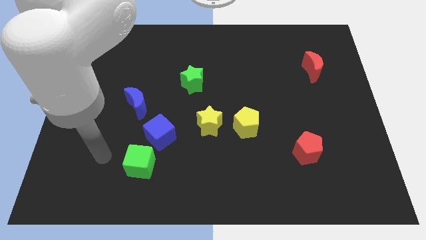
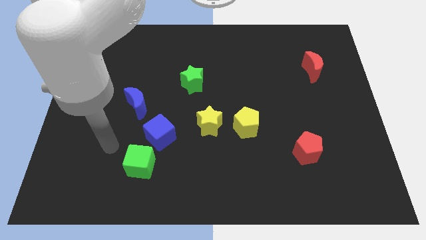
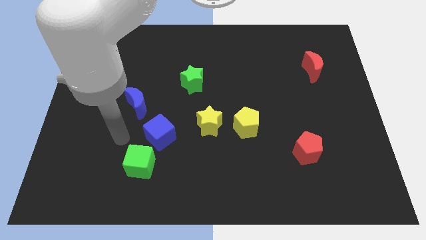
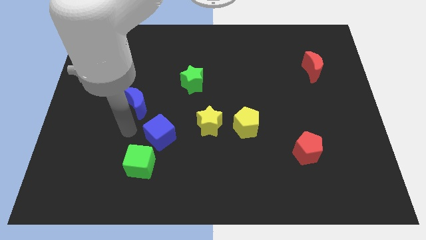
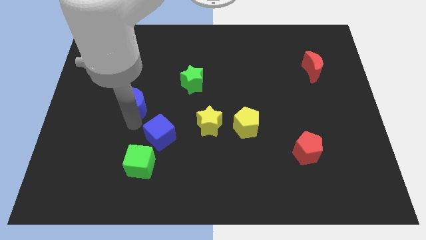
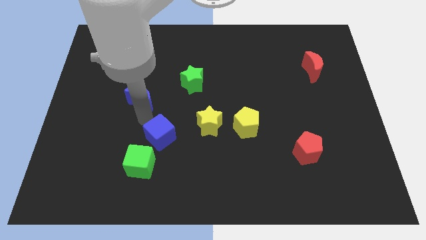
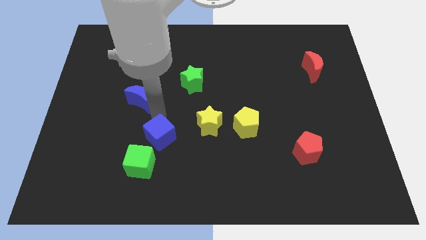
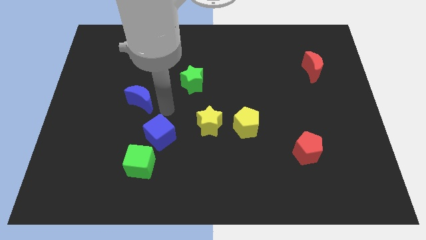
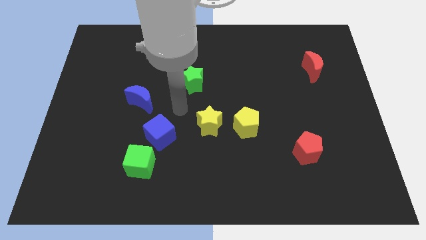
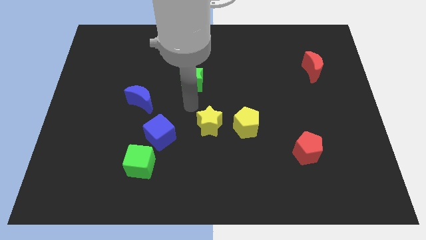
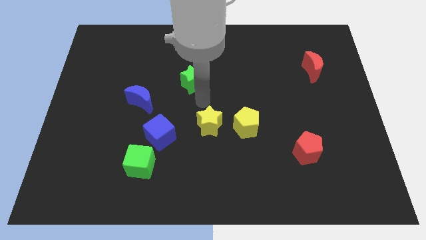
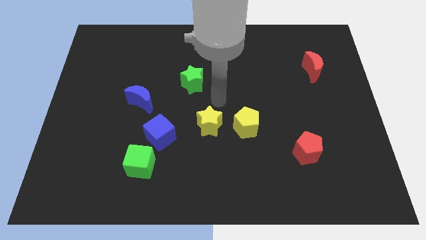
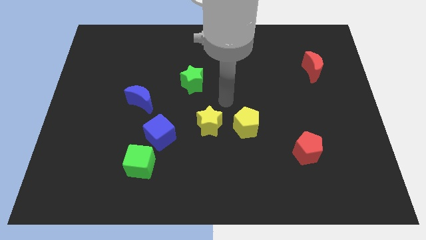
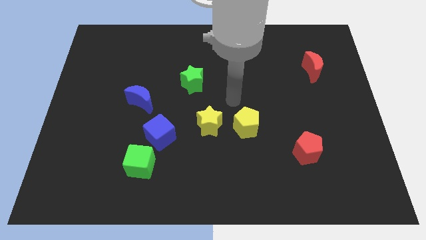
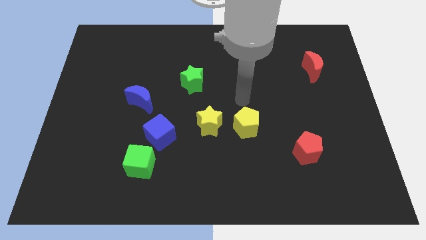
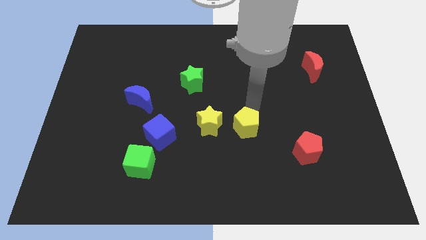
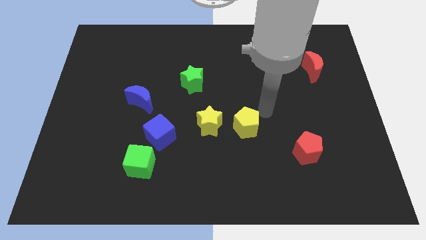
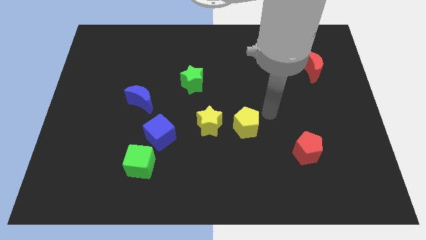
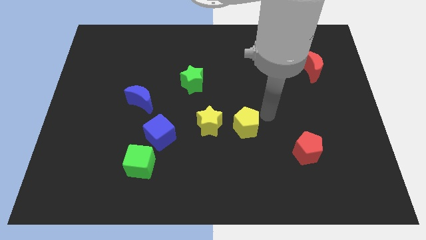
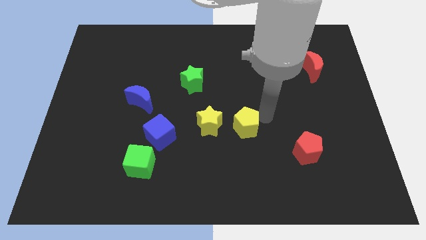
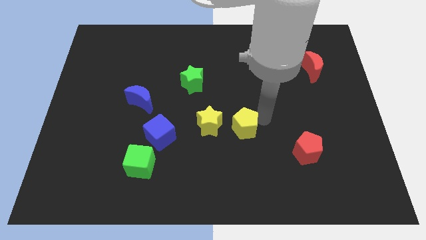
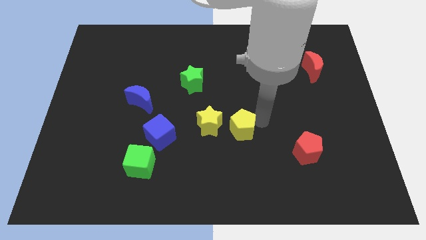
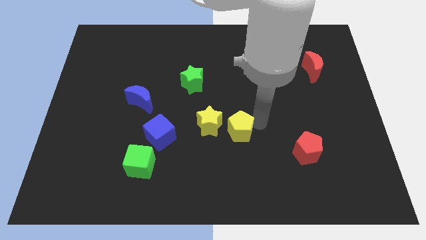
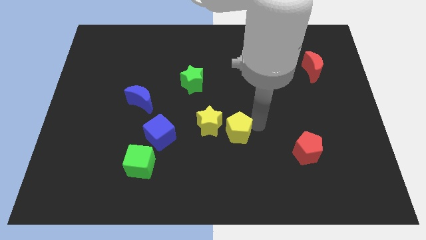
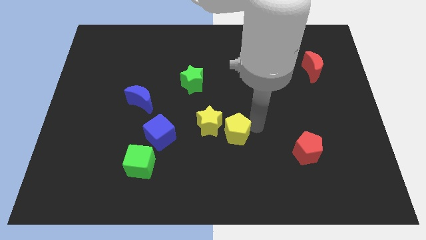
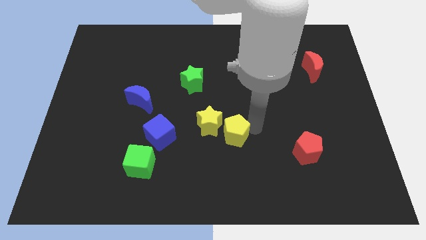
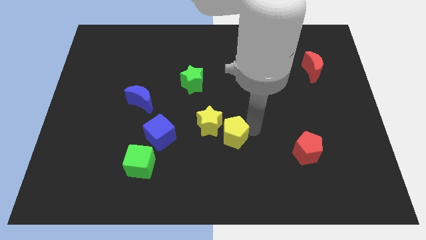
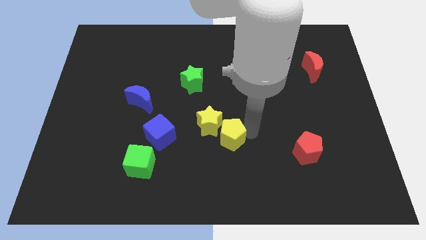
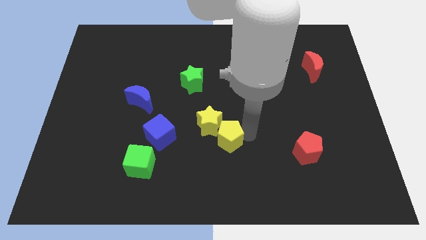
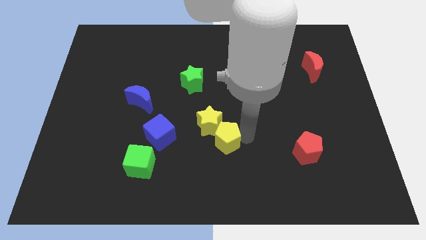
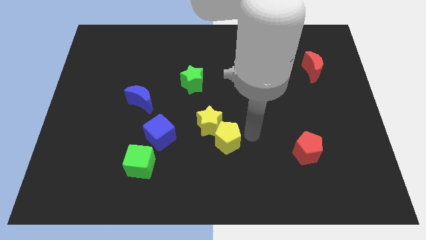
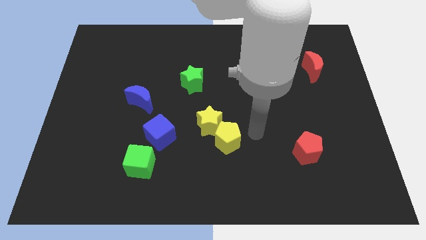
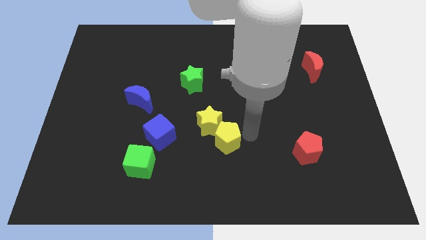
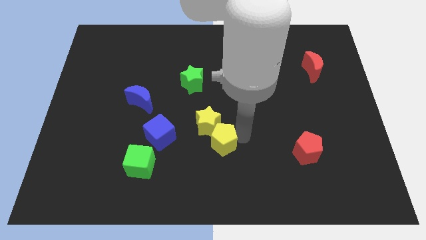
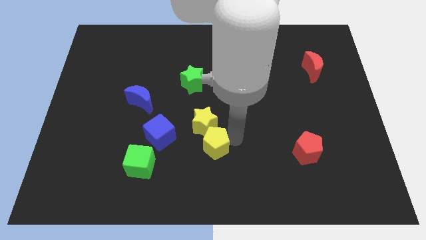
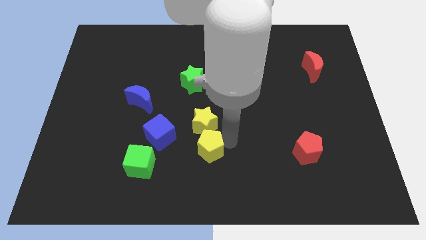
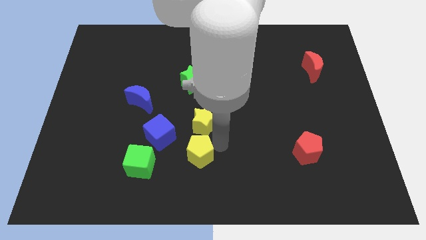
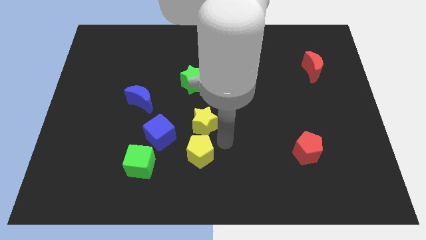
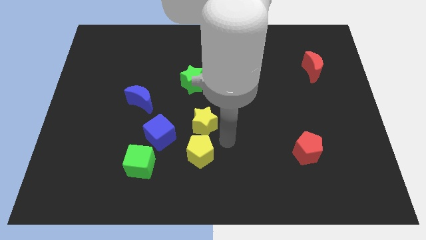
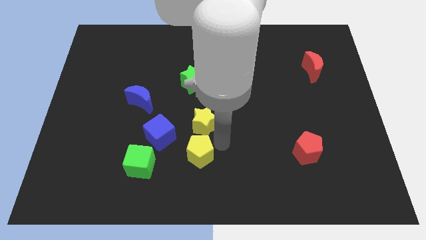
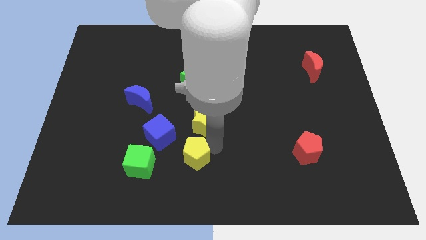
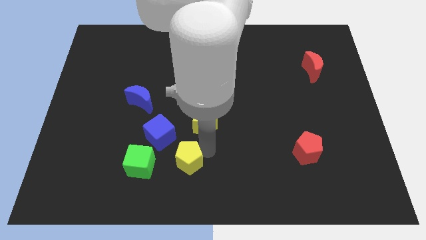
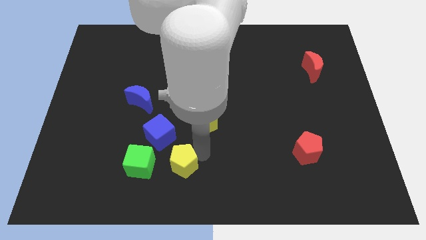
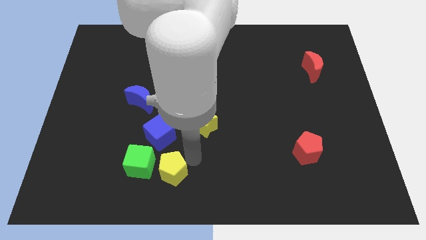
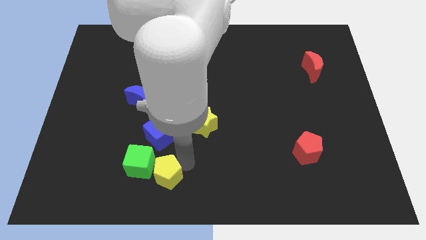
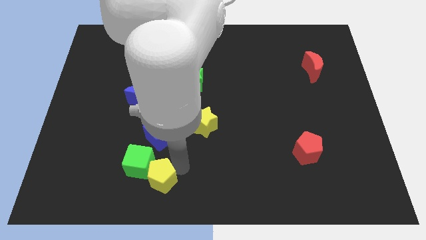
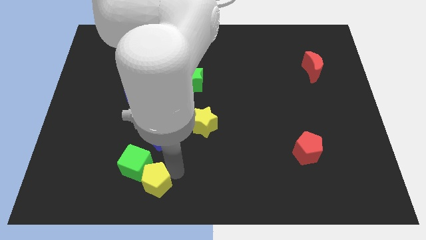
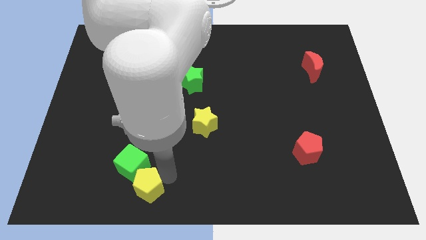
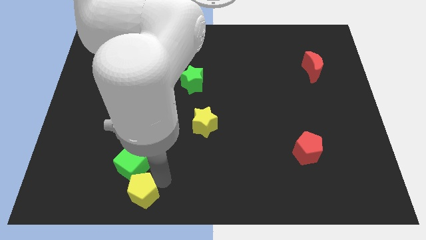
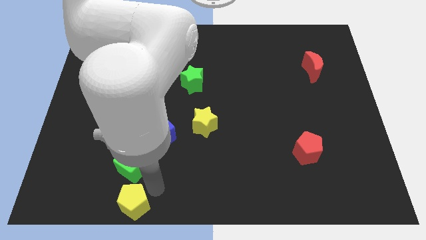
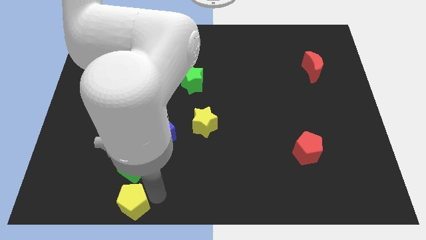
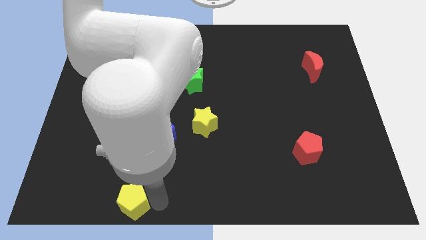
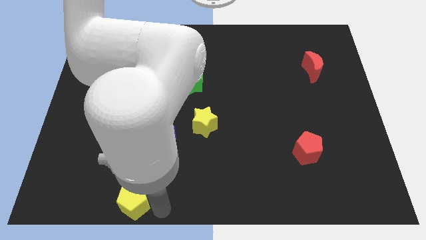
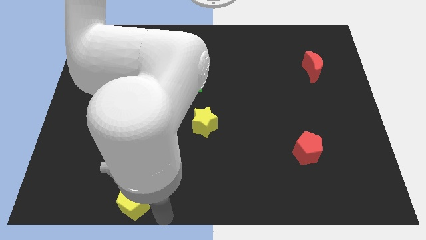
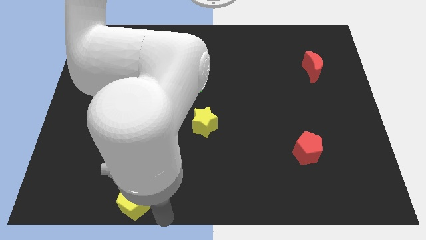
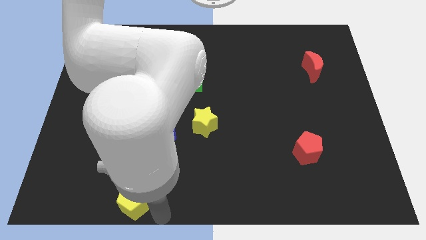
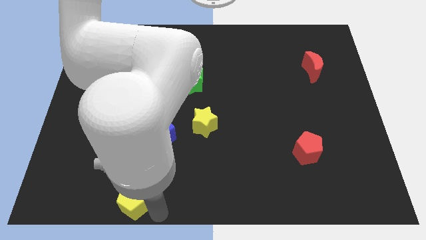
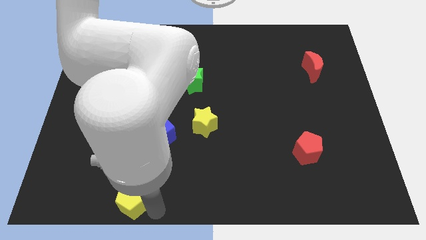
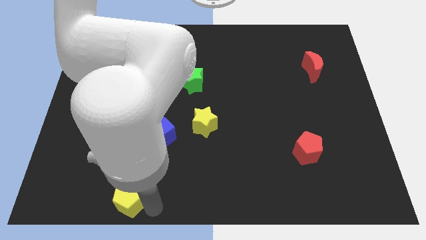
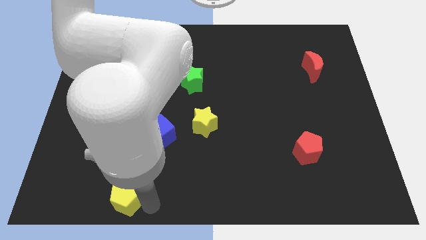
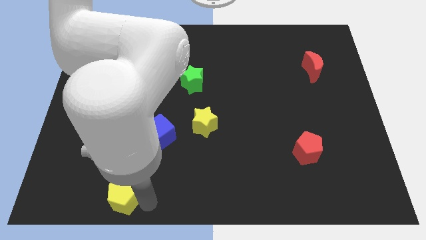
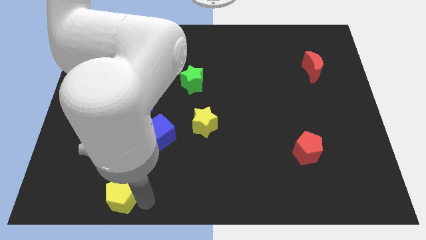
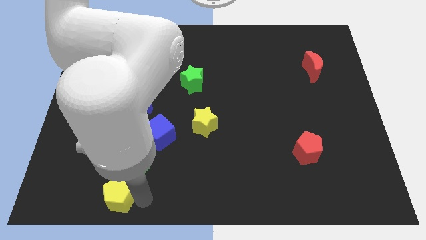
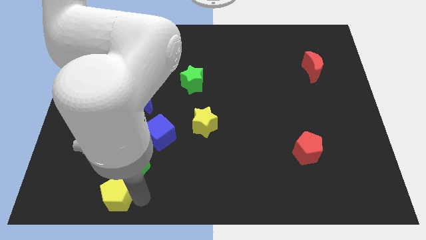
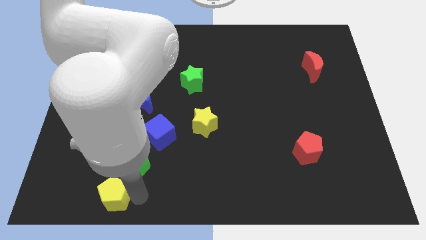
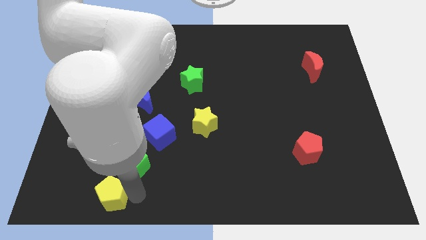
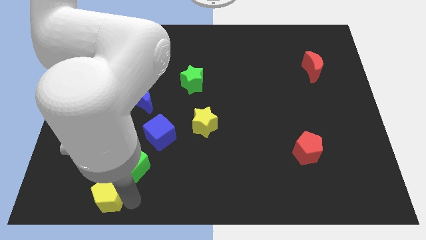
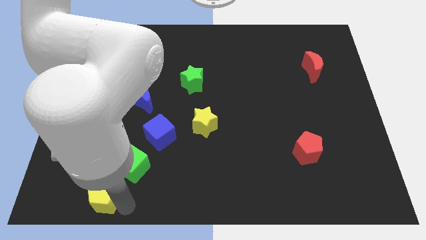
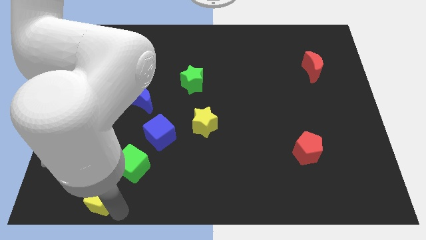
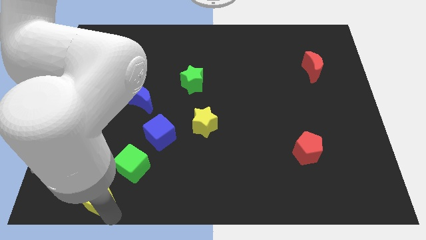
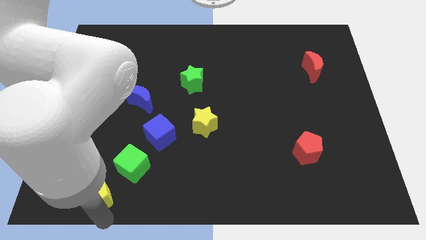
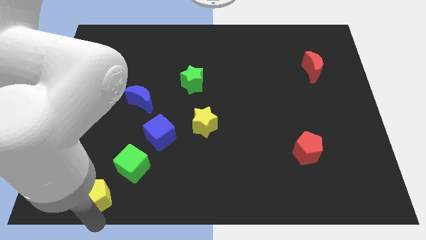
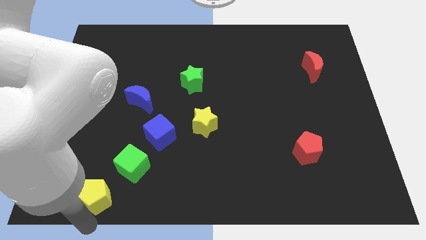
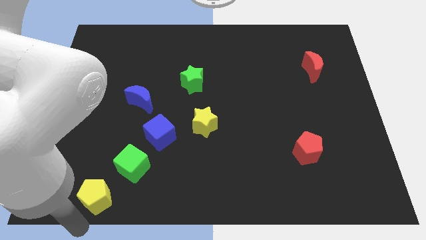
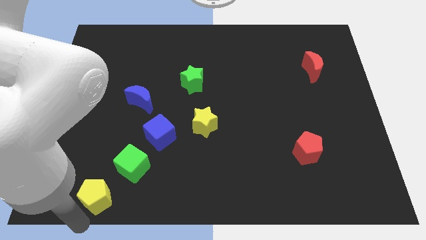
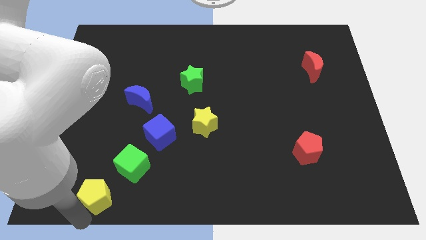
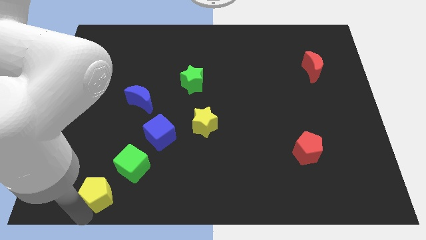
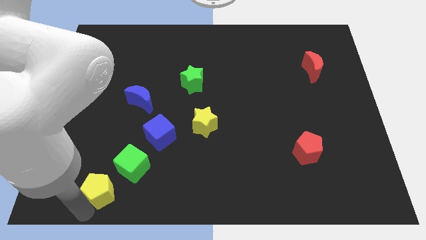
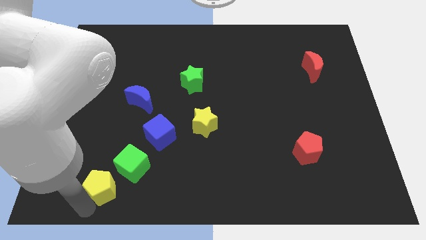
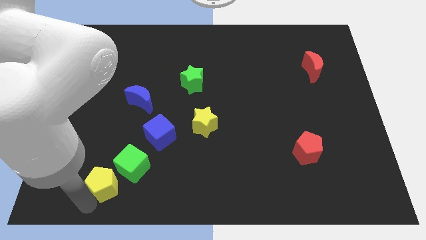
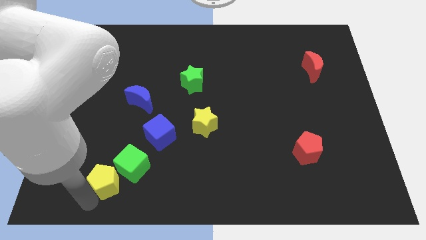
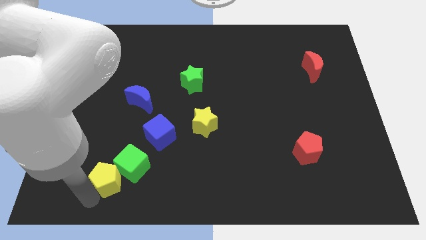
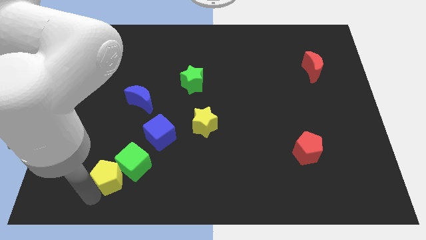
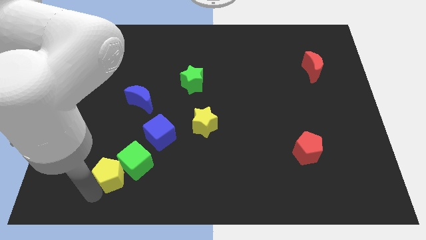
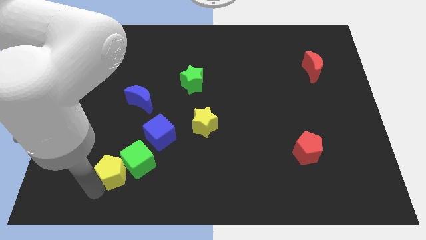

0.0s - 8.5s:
move the yellow pentagon to the bottom left of the blue cube
